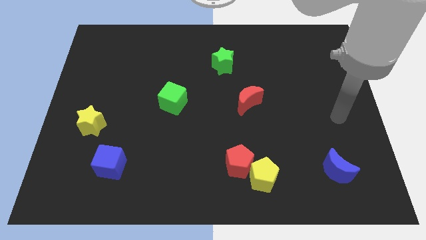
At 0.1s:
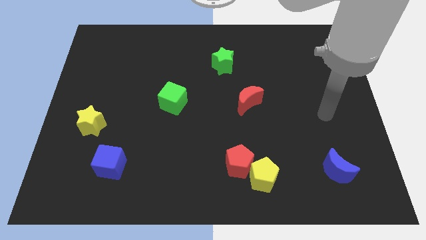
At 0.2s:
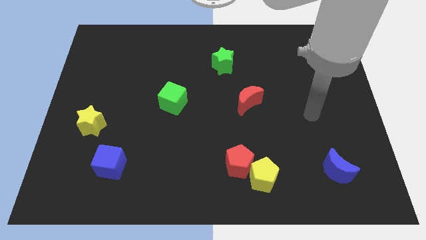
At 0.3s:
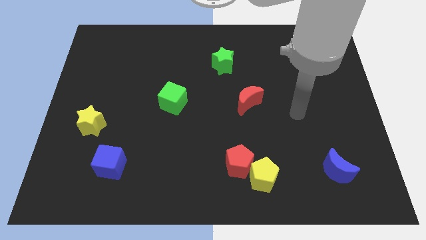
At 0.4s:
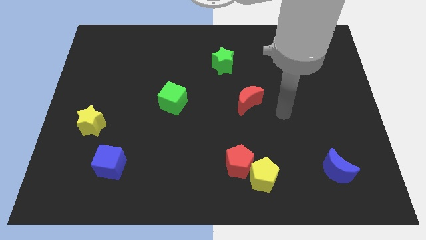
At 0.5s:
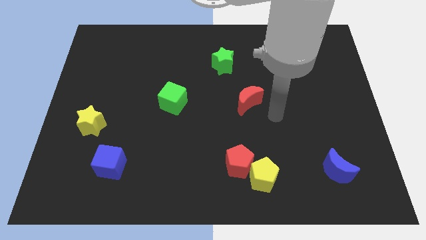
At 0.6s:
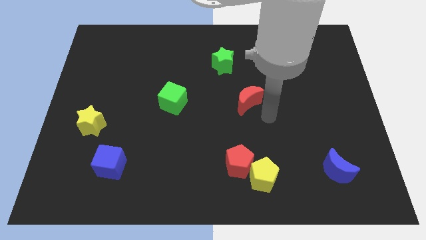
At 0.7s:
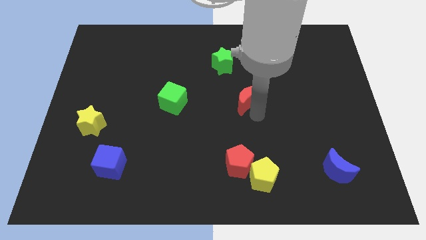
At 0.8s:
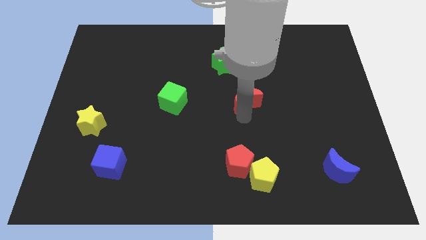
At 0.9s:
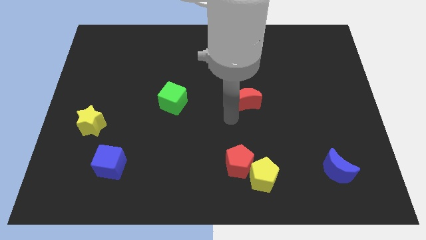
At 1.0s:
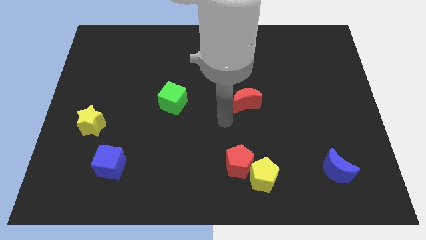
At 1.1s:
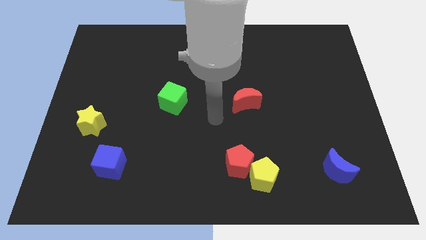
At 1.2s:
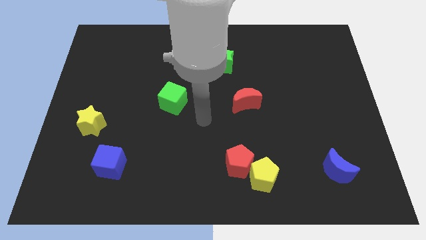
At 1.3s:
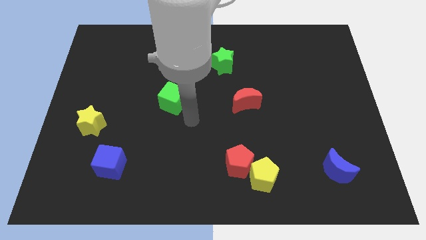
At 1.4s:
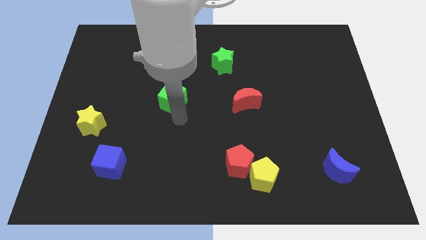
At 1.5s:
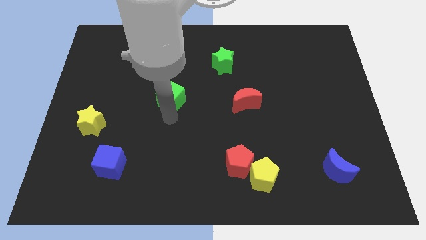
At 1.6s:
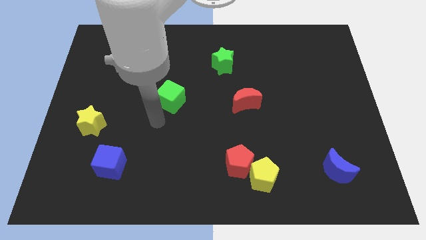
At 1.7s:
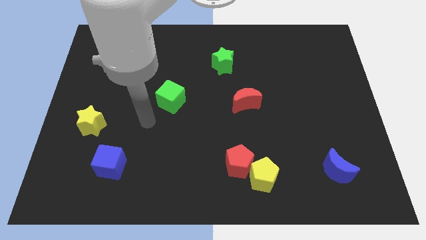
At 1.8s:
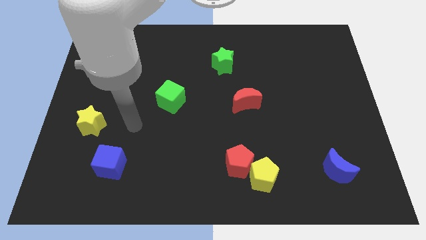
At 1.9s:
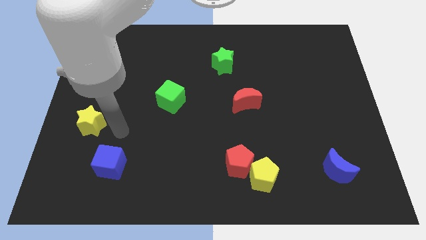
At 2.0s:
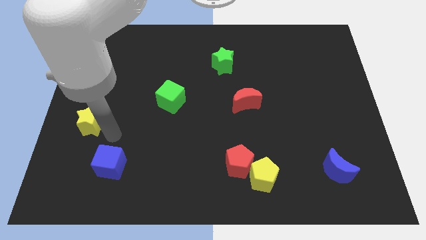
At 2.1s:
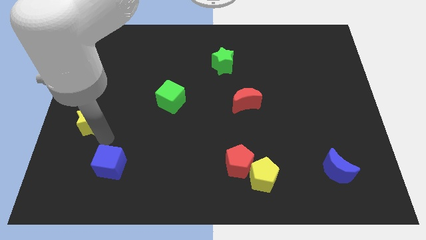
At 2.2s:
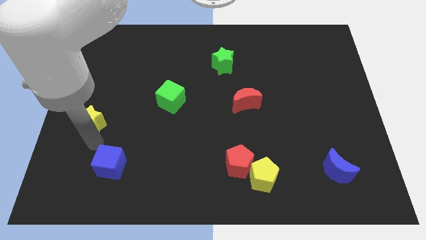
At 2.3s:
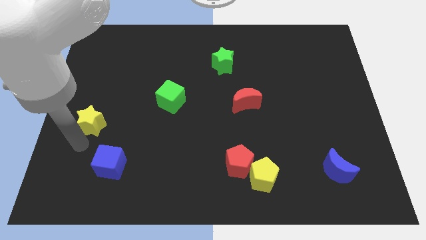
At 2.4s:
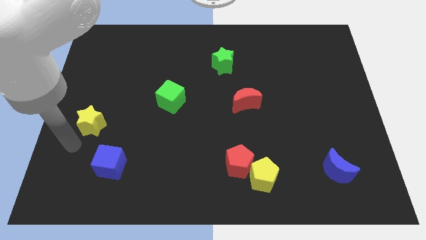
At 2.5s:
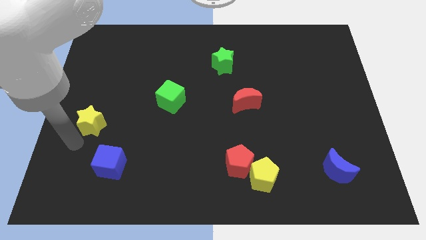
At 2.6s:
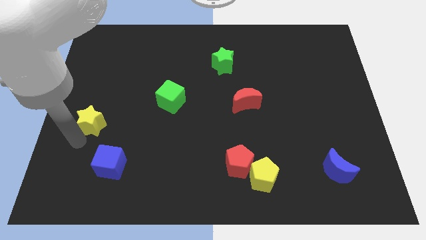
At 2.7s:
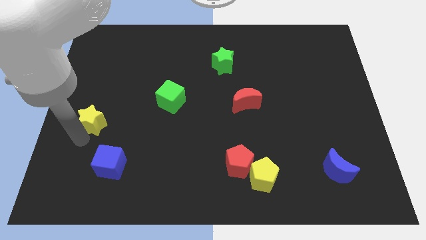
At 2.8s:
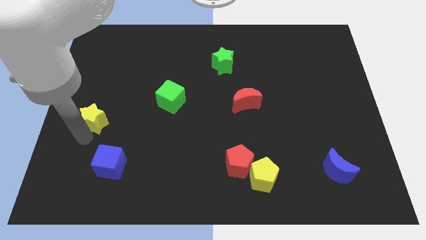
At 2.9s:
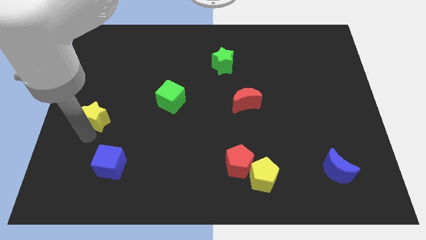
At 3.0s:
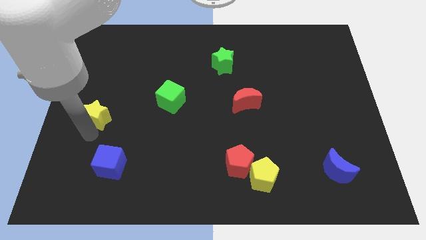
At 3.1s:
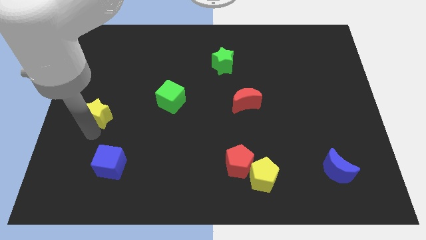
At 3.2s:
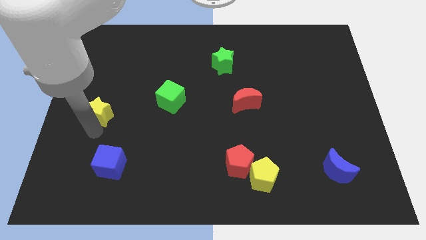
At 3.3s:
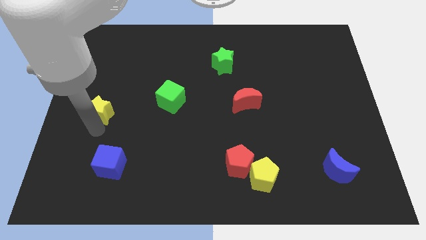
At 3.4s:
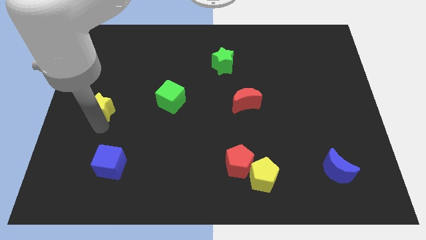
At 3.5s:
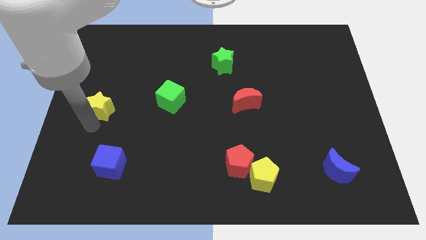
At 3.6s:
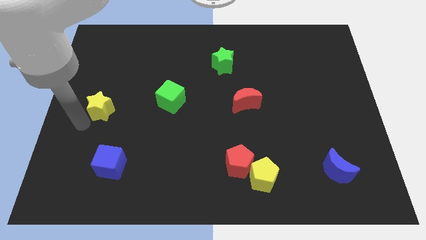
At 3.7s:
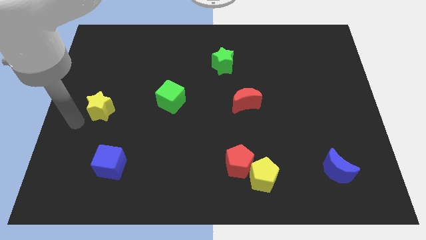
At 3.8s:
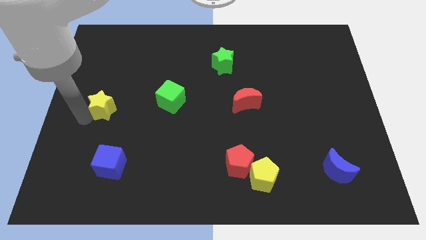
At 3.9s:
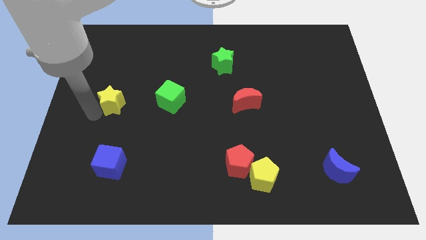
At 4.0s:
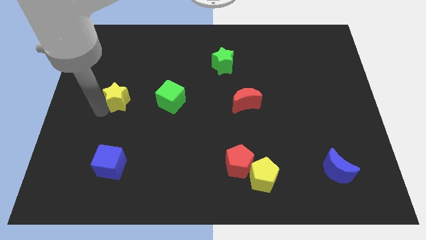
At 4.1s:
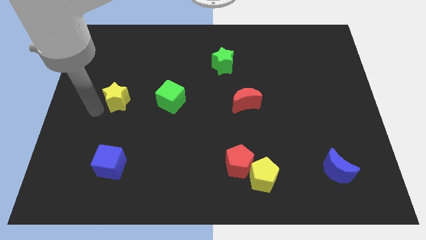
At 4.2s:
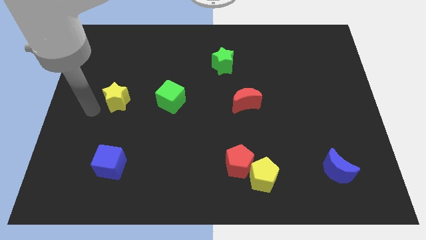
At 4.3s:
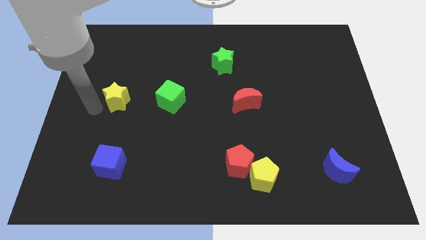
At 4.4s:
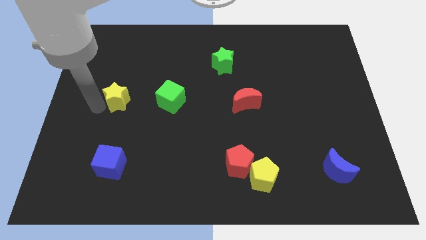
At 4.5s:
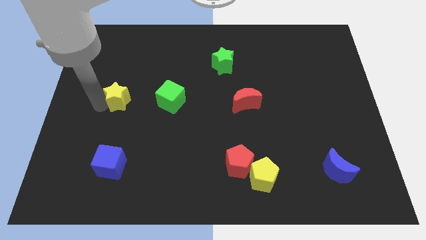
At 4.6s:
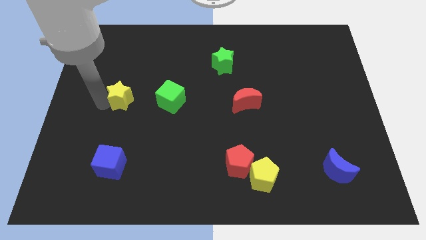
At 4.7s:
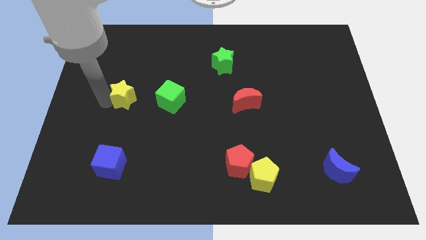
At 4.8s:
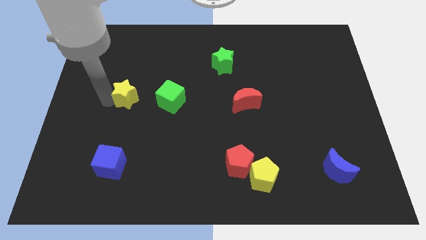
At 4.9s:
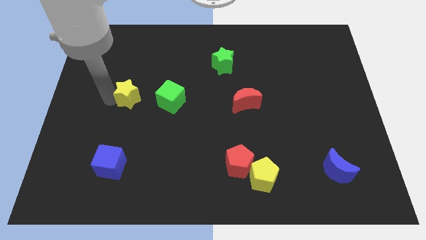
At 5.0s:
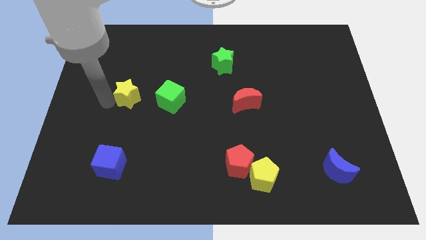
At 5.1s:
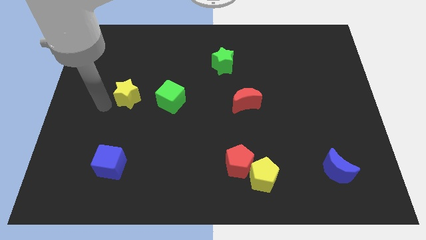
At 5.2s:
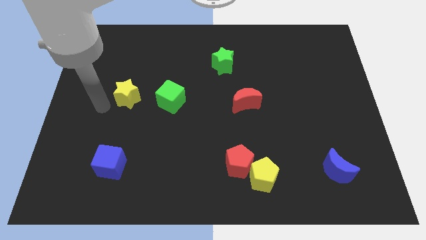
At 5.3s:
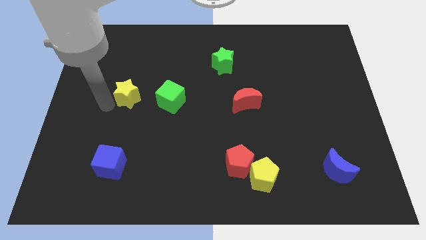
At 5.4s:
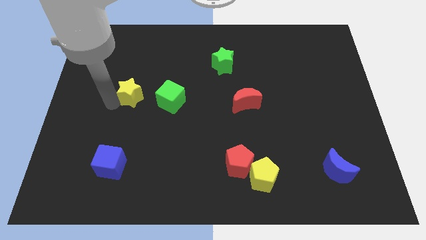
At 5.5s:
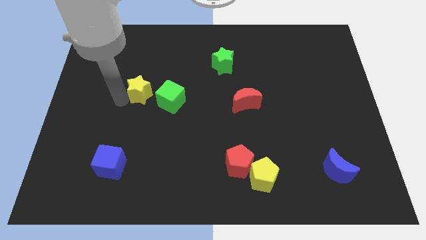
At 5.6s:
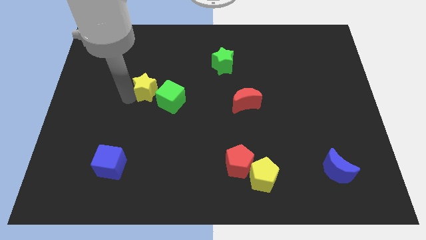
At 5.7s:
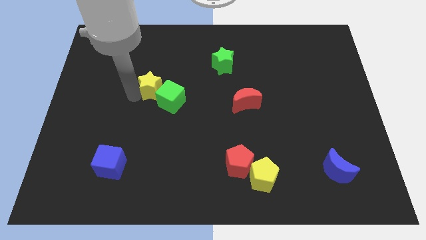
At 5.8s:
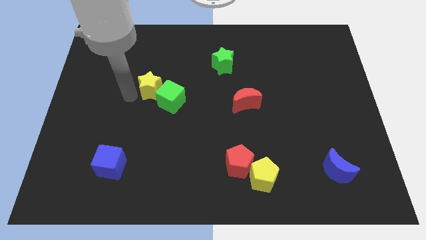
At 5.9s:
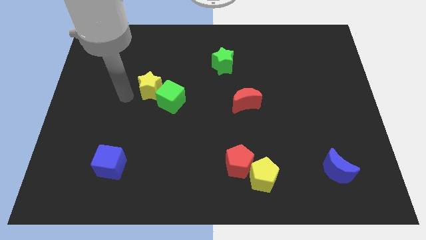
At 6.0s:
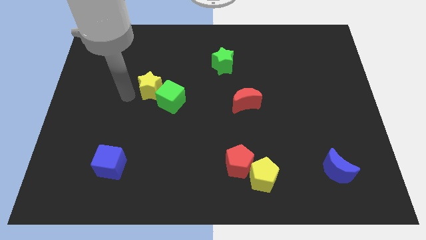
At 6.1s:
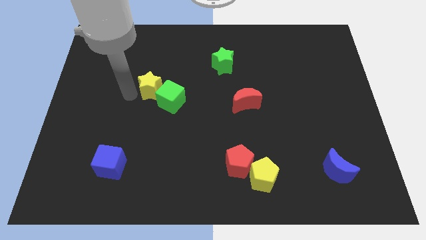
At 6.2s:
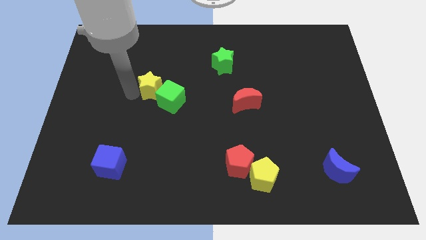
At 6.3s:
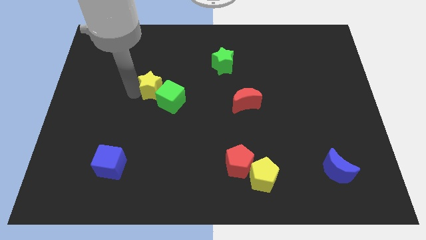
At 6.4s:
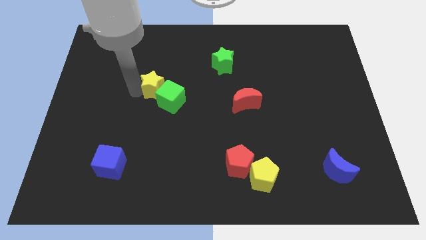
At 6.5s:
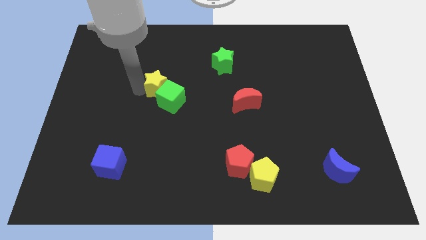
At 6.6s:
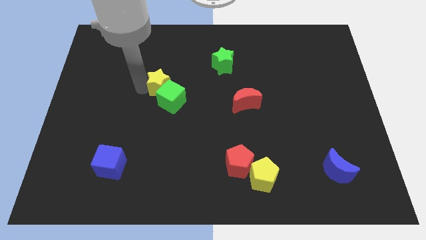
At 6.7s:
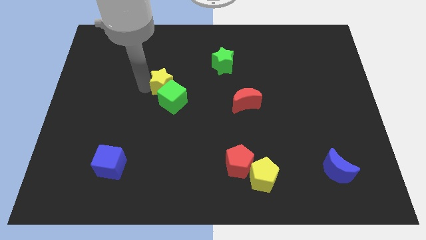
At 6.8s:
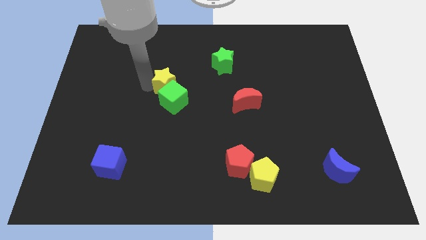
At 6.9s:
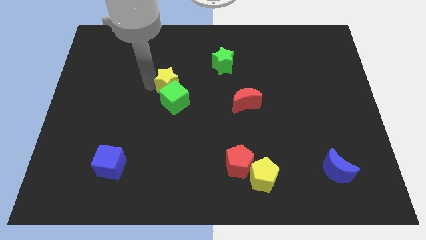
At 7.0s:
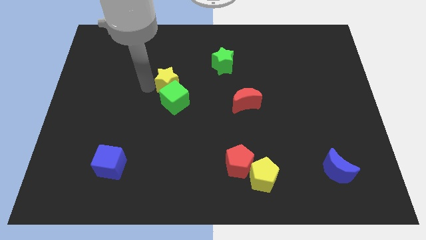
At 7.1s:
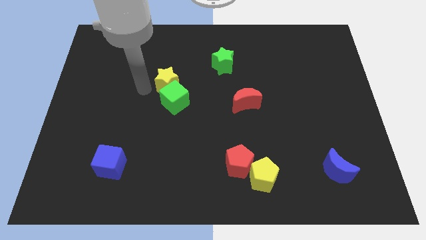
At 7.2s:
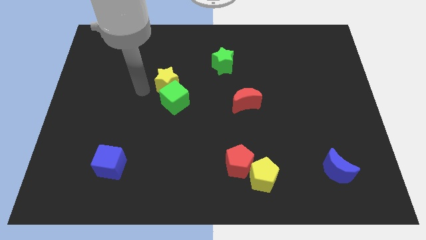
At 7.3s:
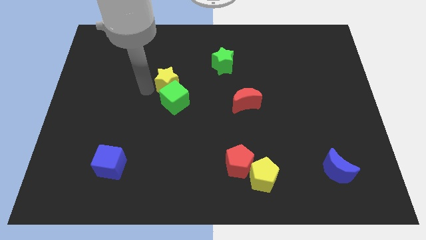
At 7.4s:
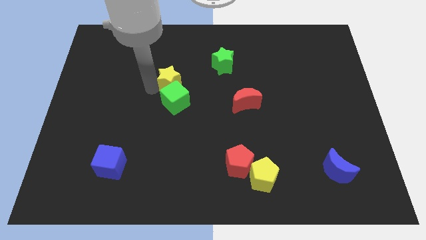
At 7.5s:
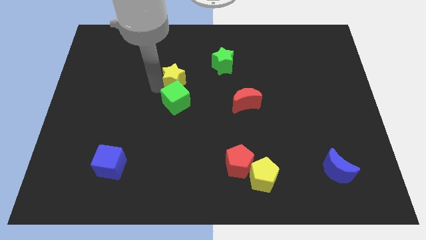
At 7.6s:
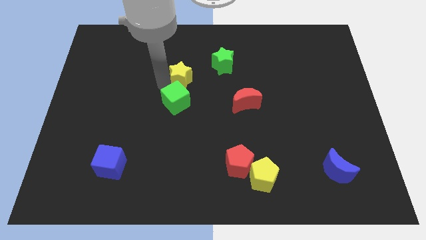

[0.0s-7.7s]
slide the yellow star to the bottom left side of the green star
